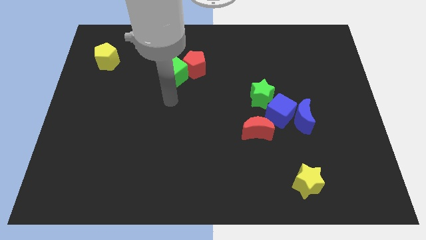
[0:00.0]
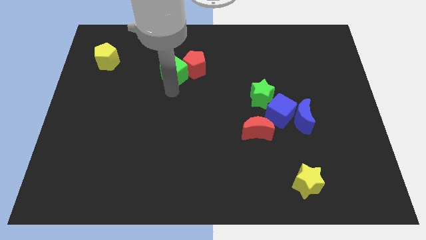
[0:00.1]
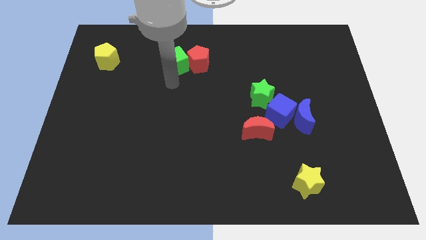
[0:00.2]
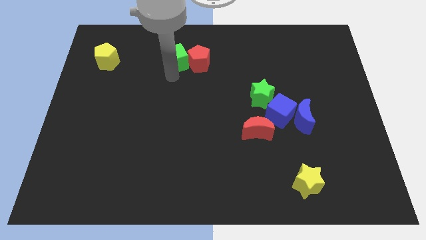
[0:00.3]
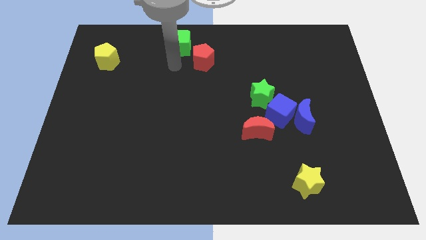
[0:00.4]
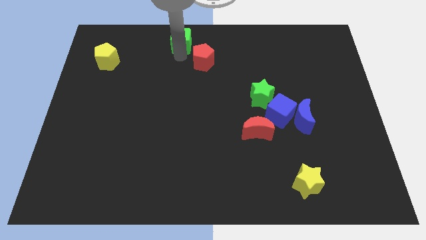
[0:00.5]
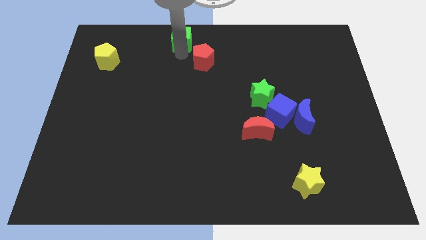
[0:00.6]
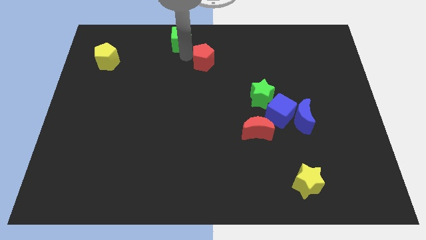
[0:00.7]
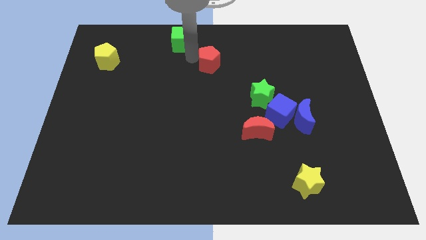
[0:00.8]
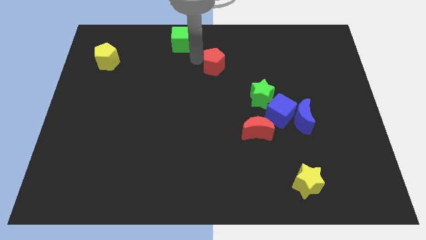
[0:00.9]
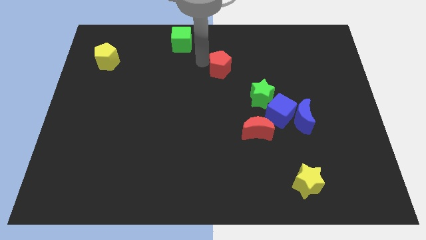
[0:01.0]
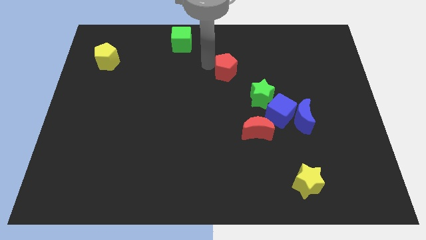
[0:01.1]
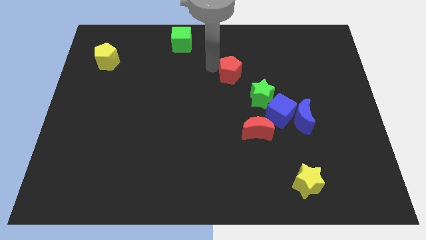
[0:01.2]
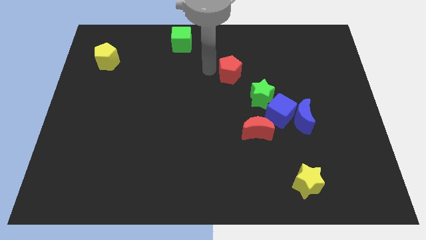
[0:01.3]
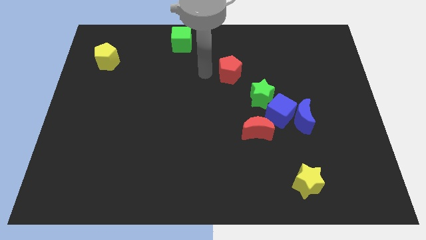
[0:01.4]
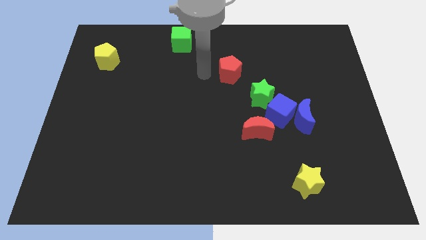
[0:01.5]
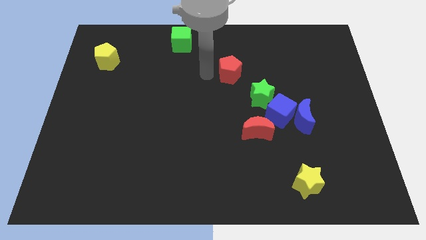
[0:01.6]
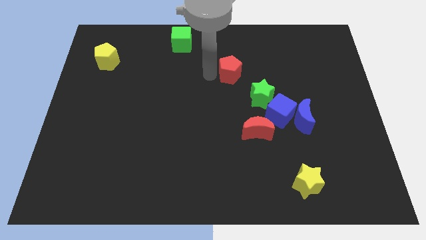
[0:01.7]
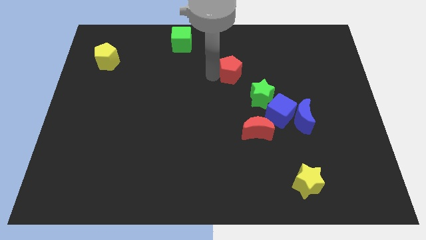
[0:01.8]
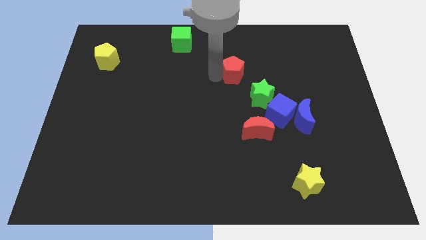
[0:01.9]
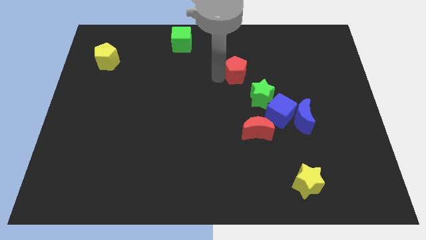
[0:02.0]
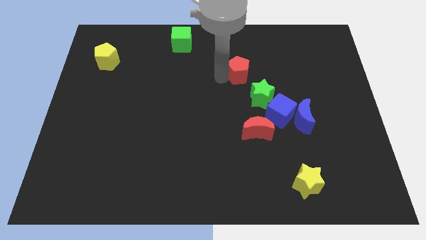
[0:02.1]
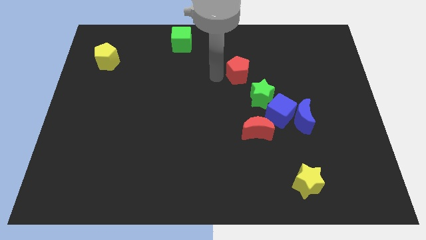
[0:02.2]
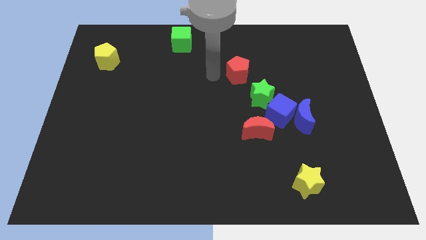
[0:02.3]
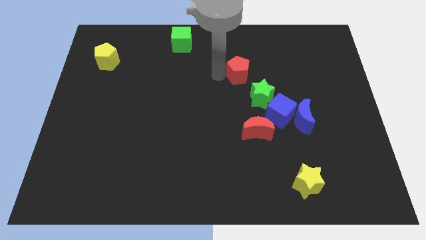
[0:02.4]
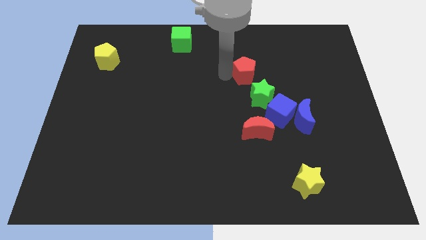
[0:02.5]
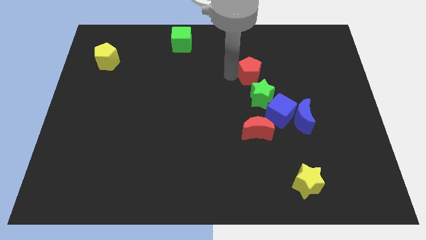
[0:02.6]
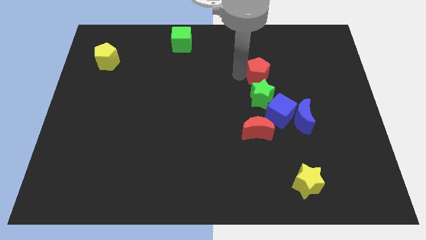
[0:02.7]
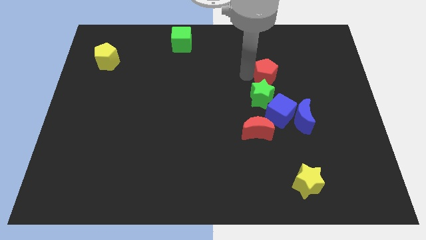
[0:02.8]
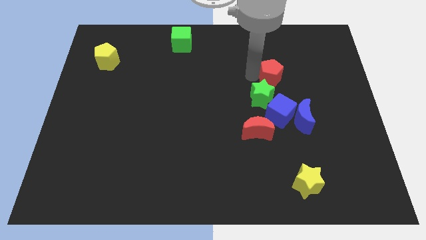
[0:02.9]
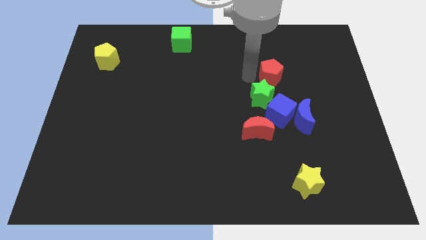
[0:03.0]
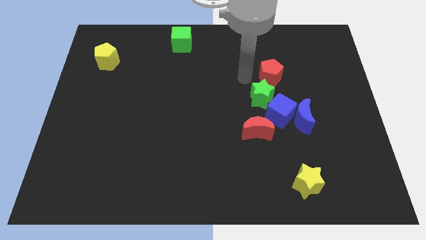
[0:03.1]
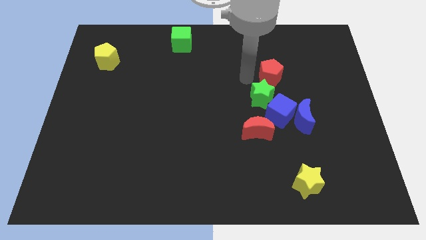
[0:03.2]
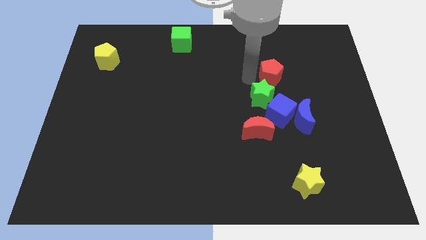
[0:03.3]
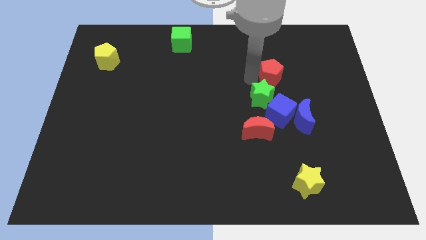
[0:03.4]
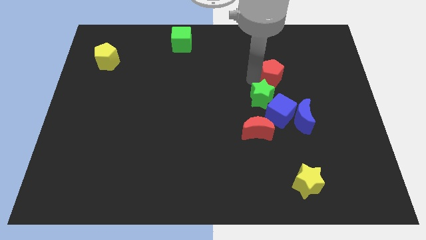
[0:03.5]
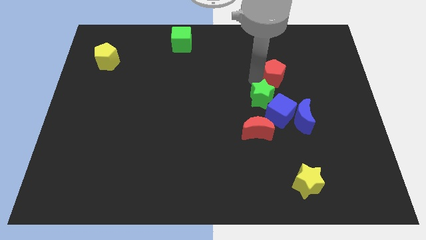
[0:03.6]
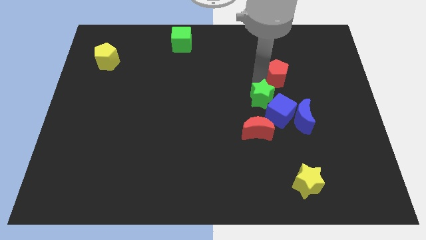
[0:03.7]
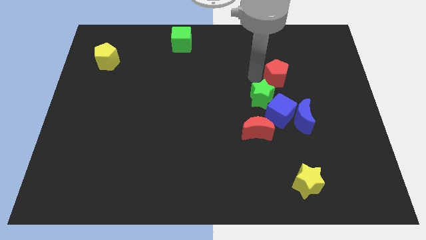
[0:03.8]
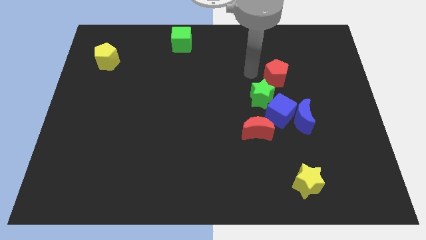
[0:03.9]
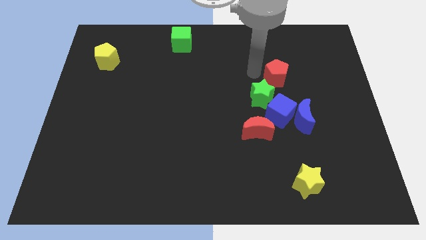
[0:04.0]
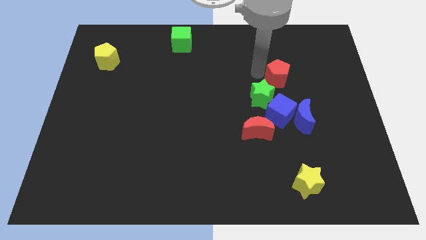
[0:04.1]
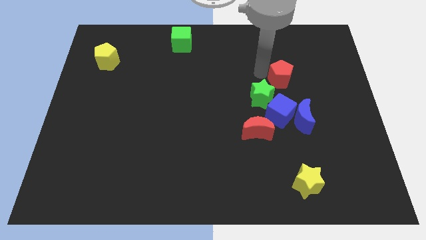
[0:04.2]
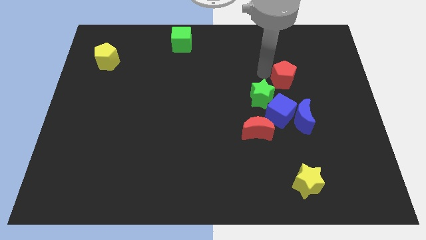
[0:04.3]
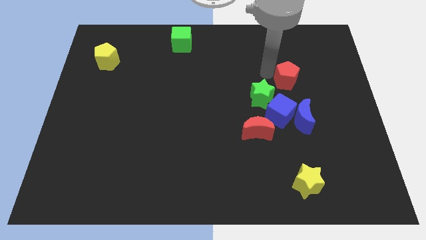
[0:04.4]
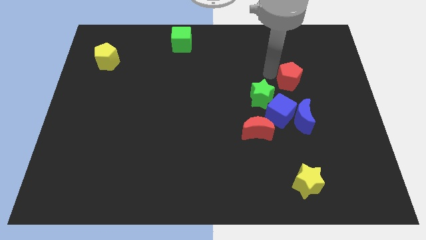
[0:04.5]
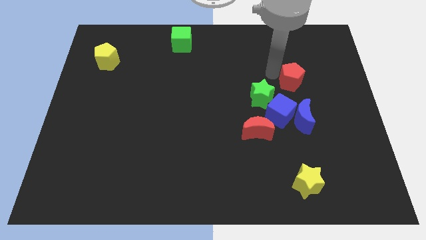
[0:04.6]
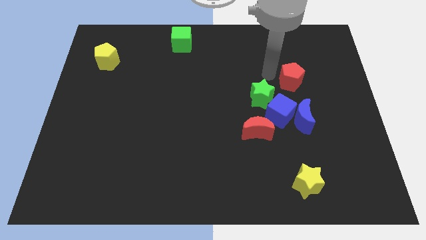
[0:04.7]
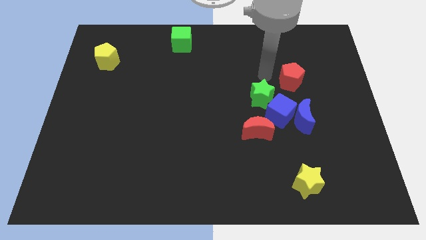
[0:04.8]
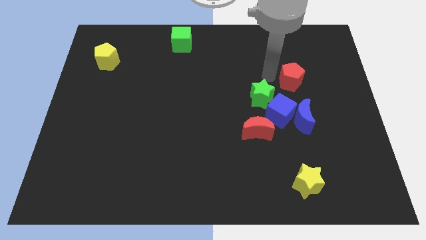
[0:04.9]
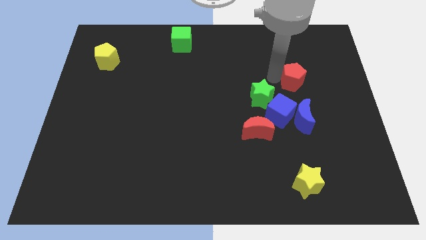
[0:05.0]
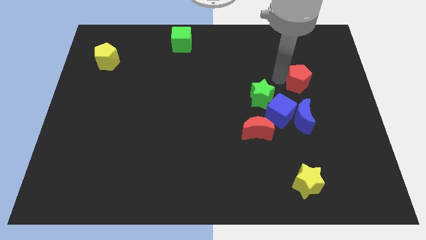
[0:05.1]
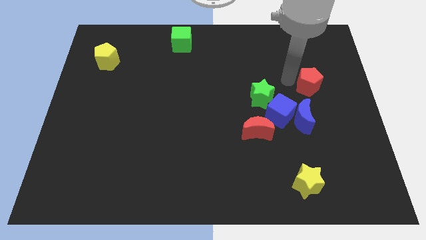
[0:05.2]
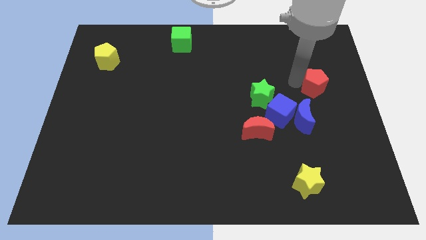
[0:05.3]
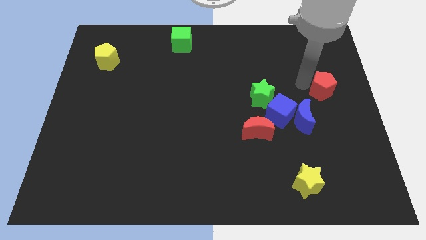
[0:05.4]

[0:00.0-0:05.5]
put the red pentagon to the right side of the board
